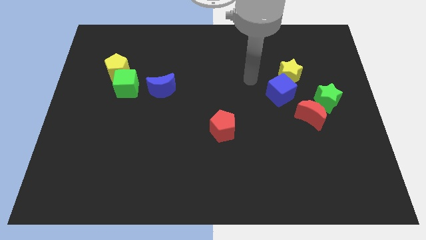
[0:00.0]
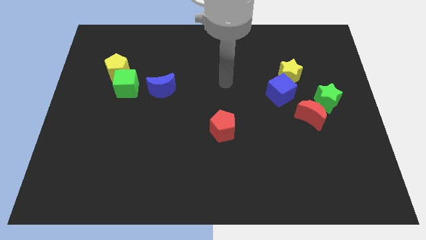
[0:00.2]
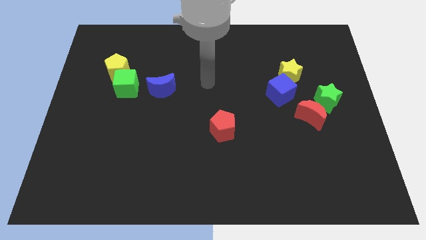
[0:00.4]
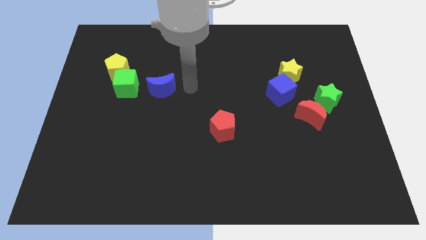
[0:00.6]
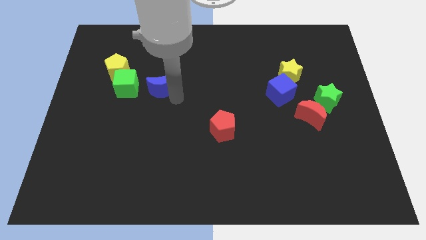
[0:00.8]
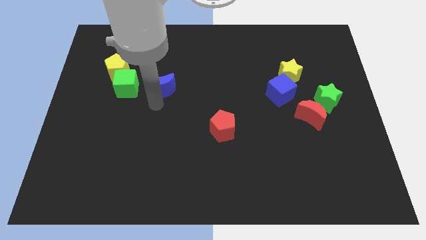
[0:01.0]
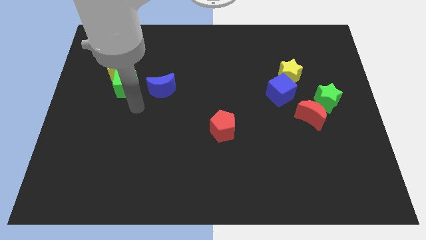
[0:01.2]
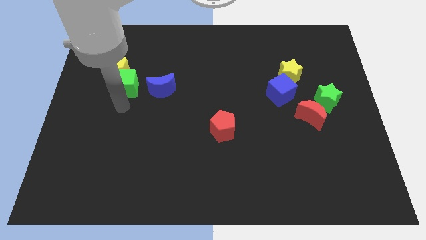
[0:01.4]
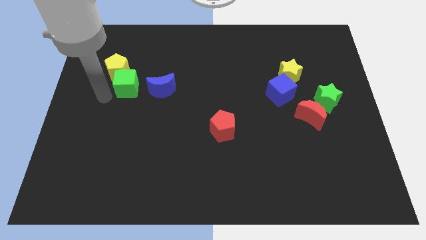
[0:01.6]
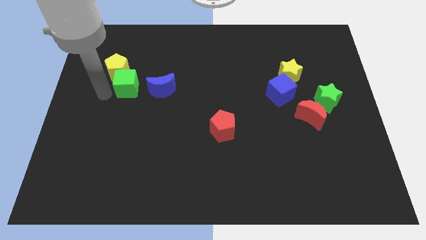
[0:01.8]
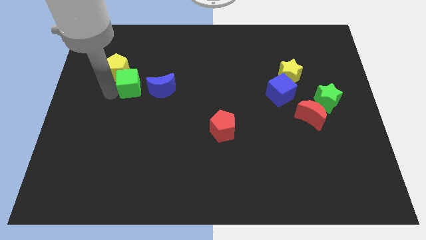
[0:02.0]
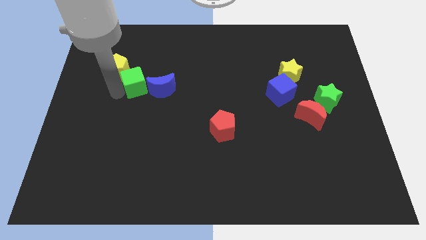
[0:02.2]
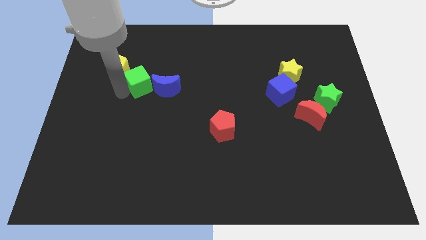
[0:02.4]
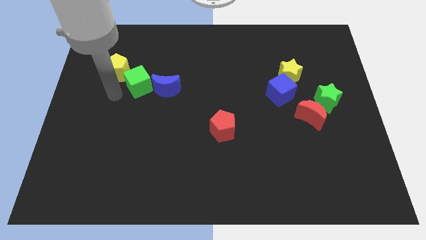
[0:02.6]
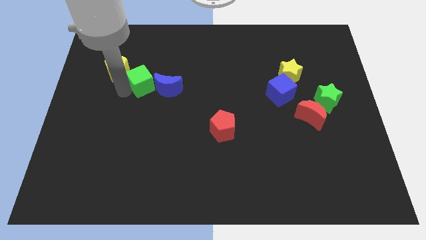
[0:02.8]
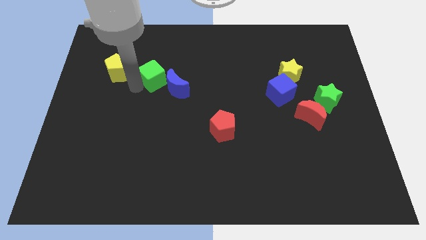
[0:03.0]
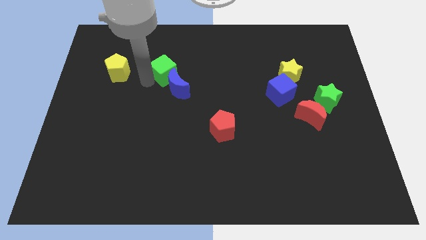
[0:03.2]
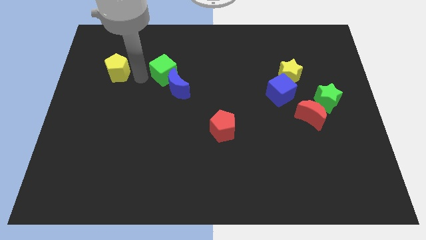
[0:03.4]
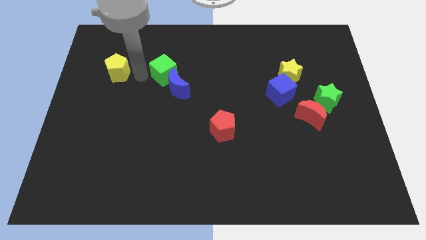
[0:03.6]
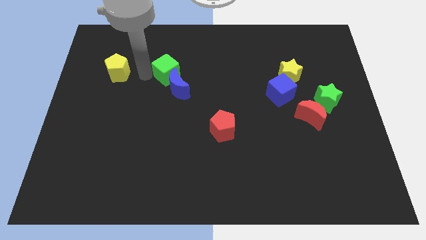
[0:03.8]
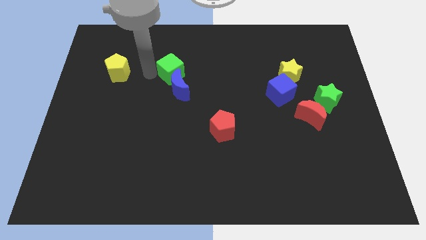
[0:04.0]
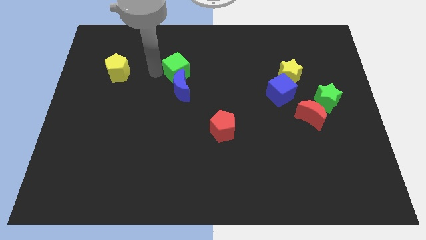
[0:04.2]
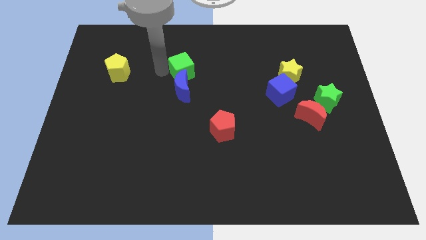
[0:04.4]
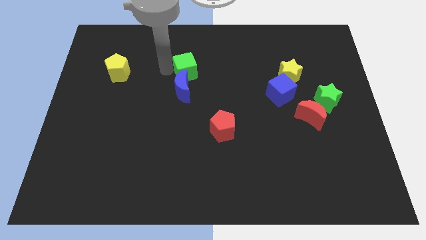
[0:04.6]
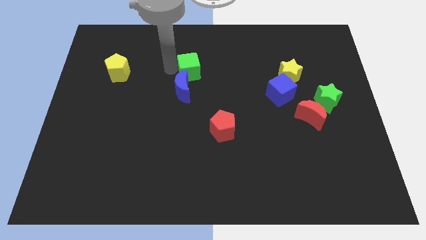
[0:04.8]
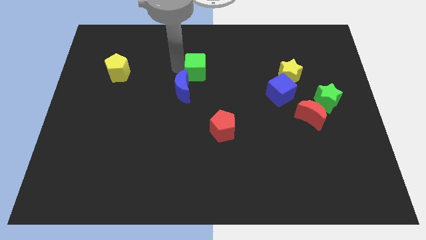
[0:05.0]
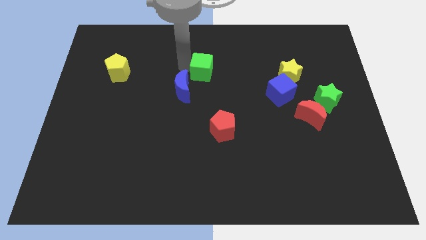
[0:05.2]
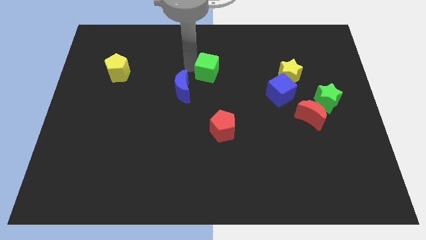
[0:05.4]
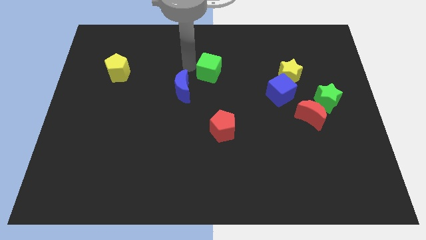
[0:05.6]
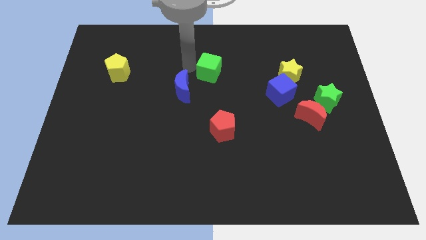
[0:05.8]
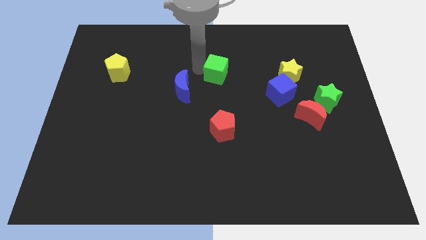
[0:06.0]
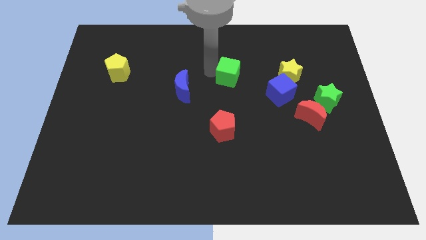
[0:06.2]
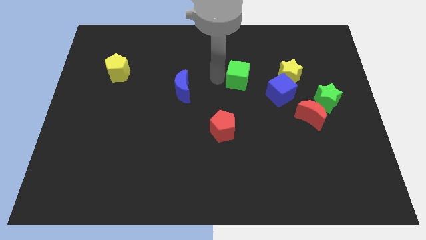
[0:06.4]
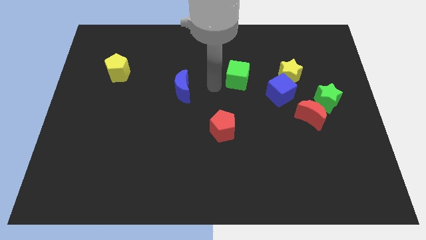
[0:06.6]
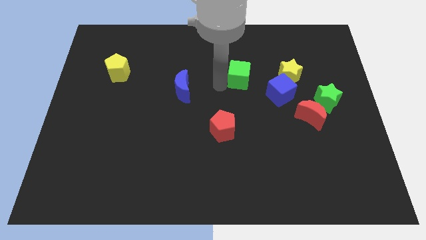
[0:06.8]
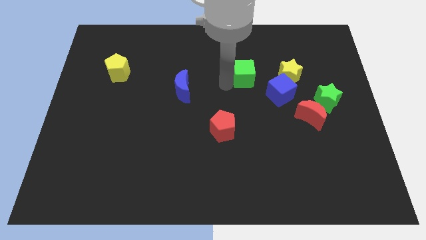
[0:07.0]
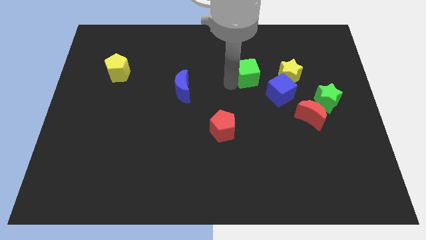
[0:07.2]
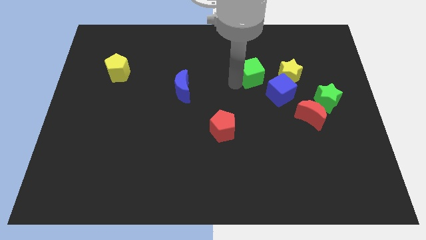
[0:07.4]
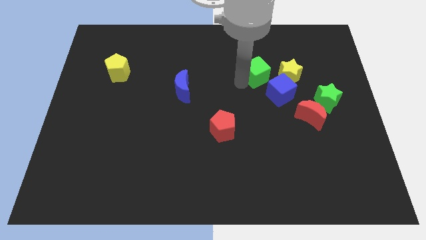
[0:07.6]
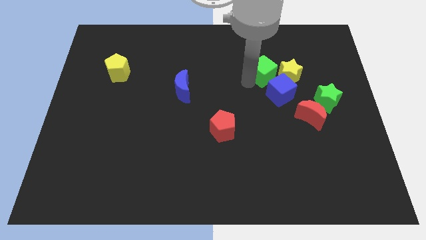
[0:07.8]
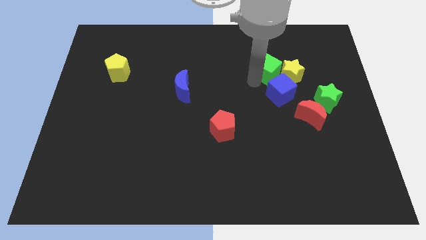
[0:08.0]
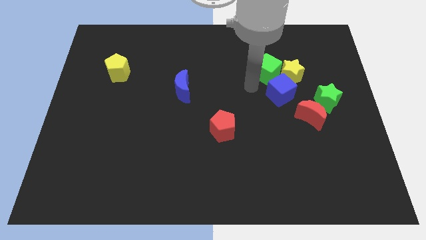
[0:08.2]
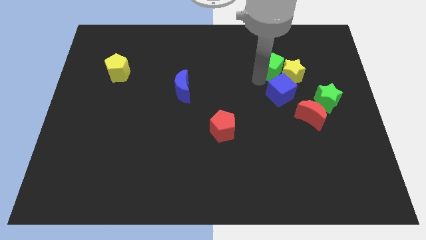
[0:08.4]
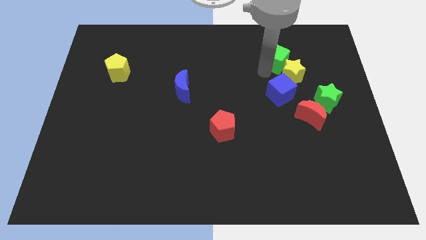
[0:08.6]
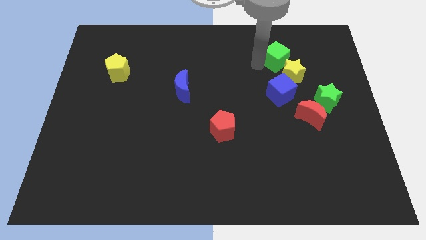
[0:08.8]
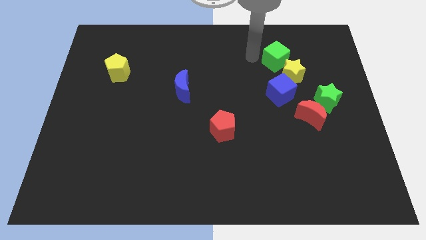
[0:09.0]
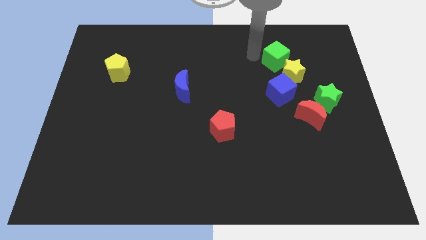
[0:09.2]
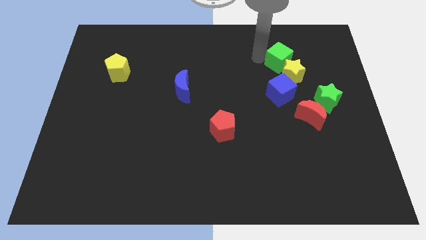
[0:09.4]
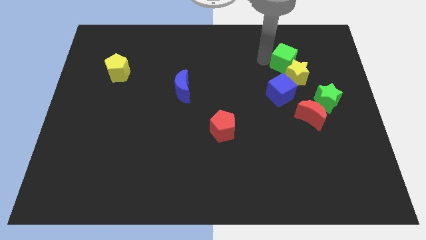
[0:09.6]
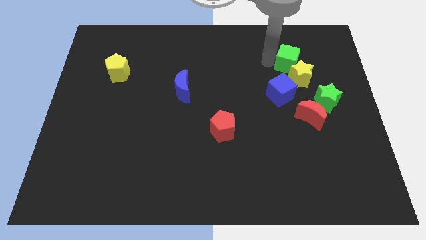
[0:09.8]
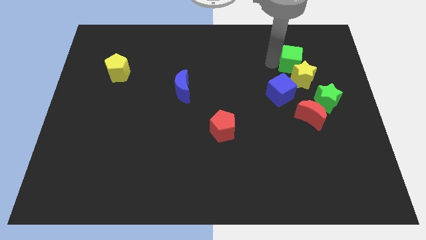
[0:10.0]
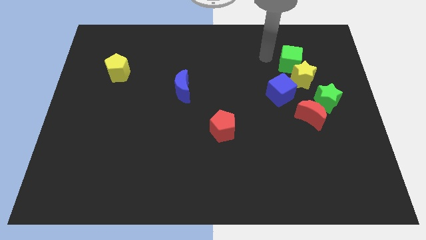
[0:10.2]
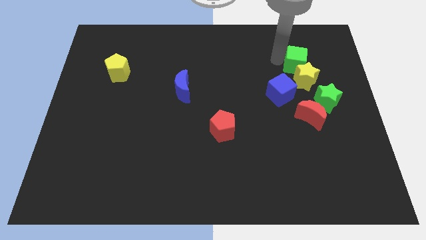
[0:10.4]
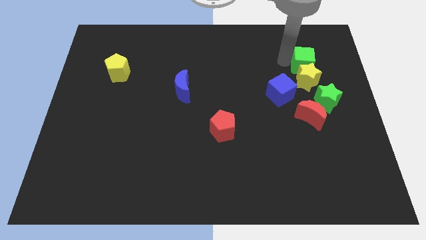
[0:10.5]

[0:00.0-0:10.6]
slide the green cube above the green star

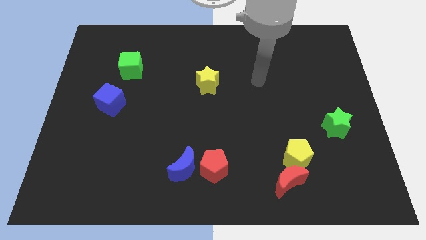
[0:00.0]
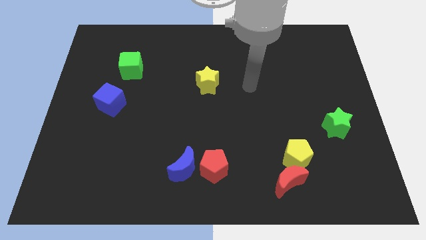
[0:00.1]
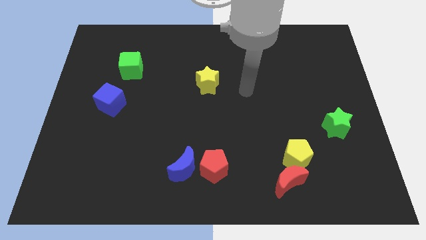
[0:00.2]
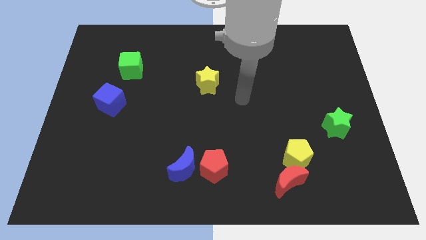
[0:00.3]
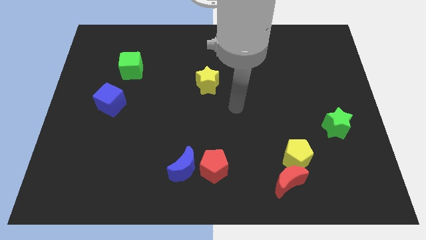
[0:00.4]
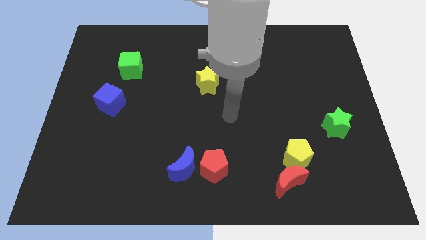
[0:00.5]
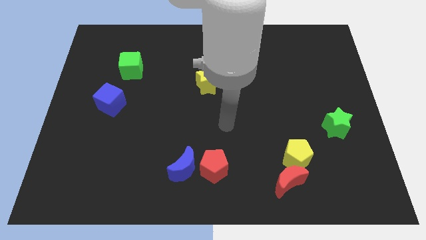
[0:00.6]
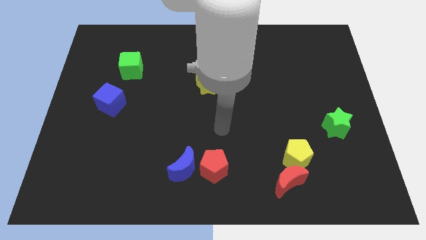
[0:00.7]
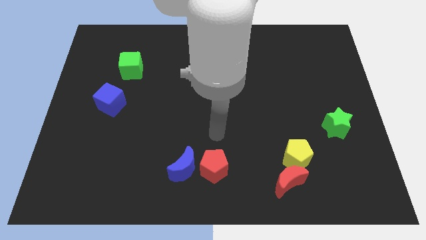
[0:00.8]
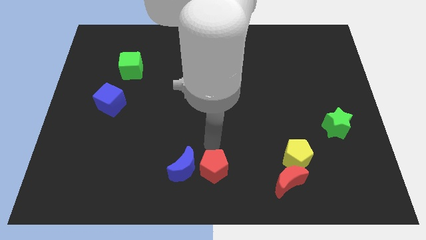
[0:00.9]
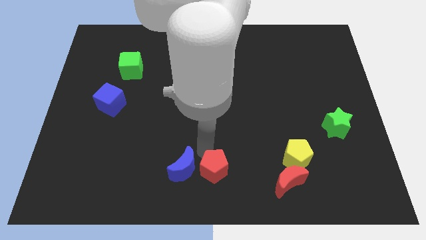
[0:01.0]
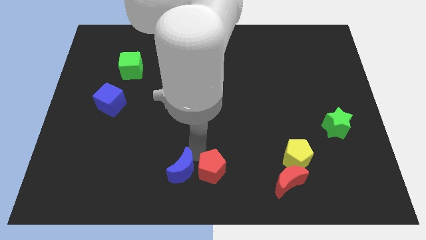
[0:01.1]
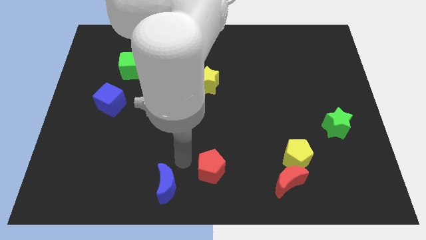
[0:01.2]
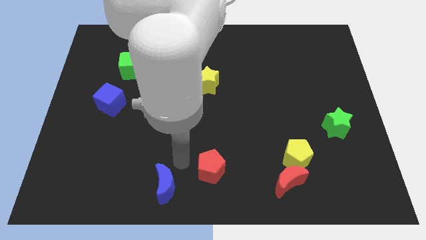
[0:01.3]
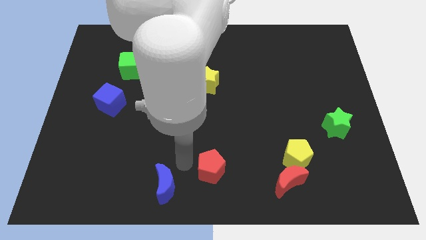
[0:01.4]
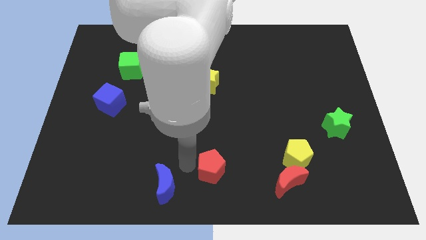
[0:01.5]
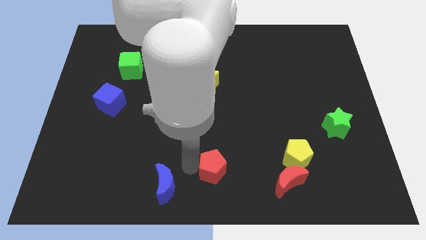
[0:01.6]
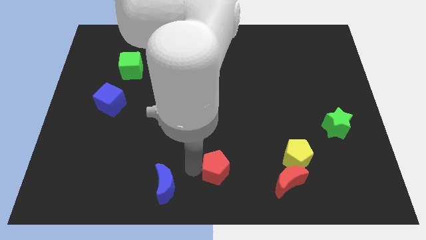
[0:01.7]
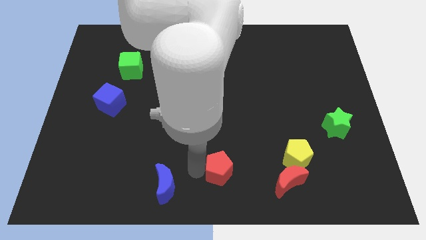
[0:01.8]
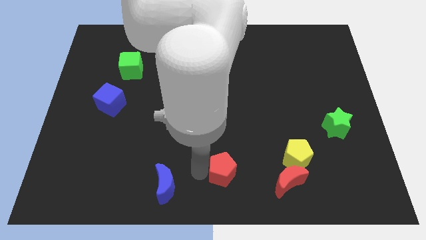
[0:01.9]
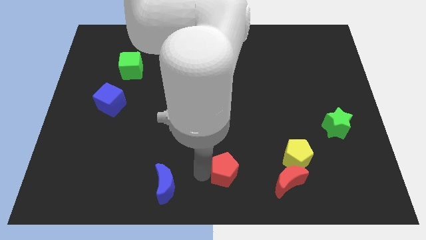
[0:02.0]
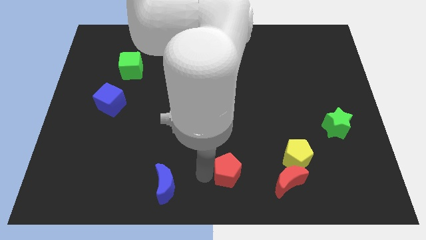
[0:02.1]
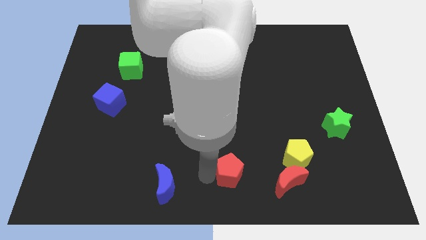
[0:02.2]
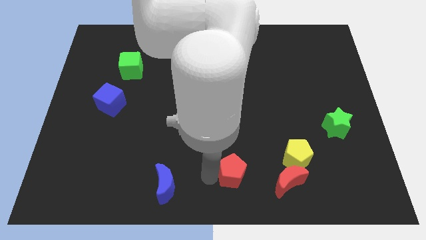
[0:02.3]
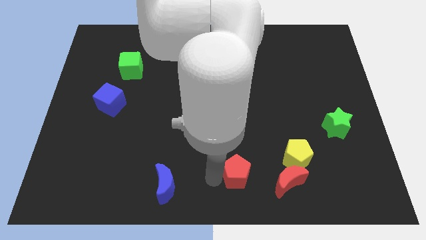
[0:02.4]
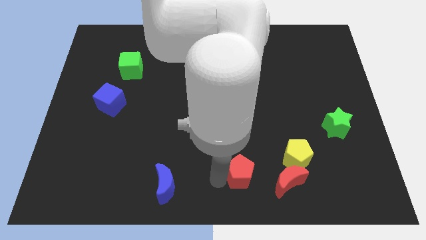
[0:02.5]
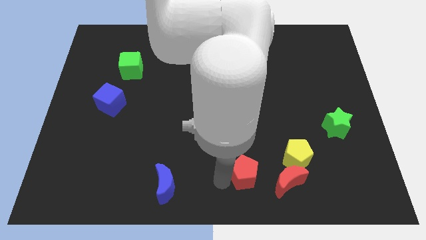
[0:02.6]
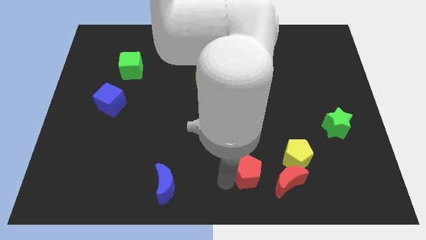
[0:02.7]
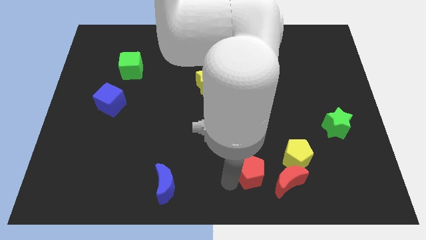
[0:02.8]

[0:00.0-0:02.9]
move the red pentagon to the bottom left of the yellow pentagon
